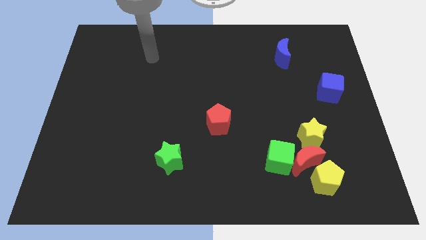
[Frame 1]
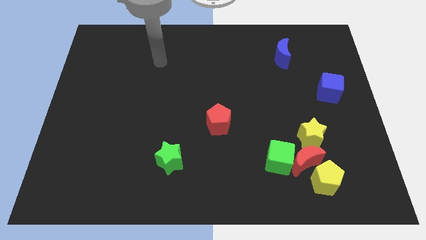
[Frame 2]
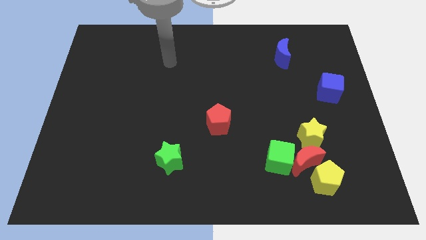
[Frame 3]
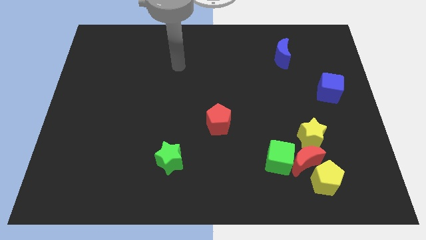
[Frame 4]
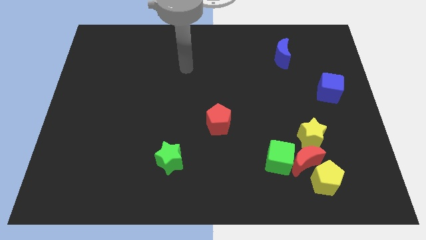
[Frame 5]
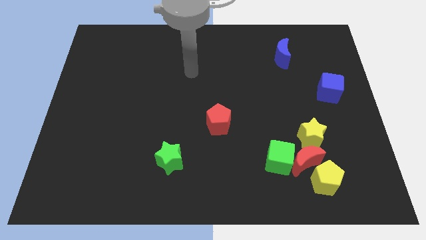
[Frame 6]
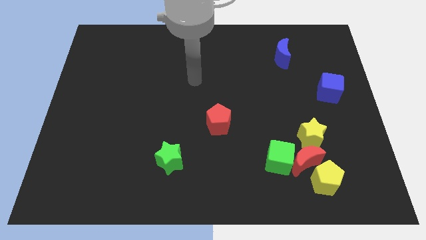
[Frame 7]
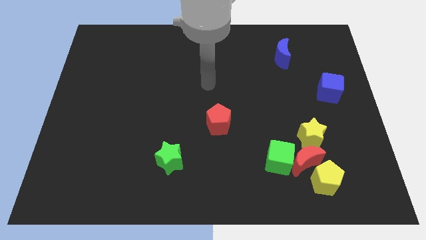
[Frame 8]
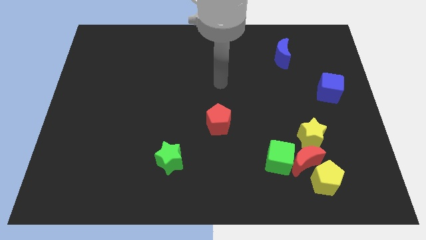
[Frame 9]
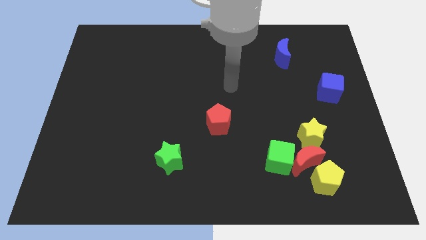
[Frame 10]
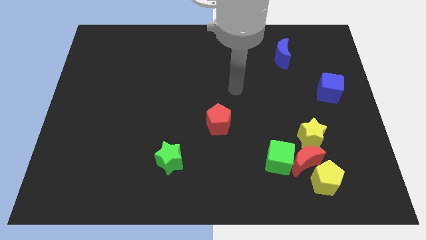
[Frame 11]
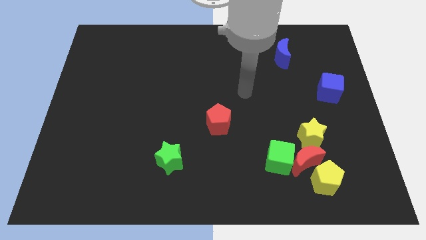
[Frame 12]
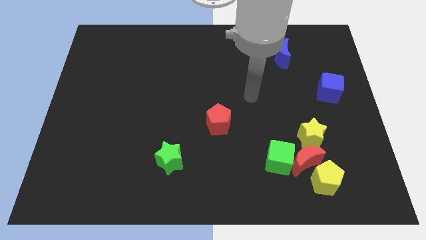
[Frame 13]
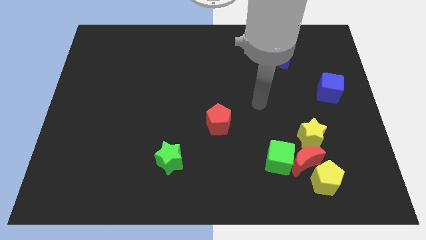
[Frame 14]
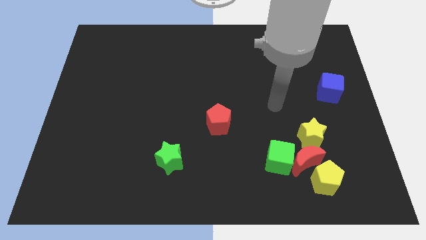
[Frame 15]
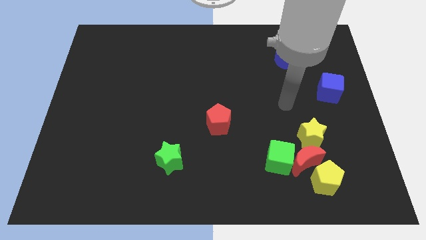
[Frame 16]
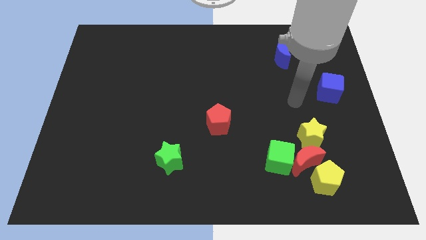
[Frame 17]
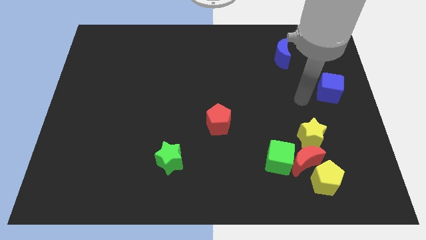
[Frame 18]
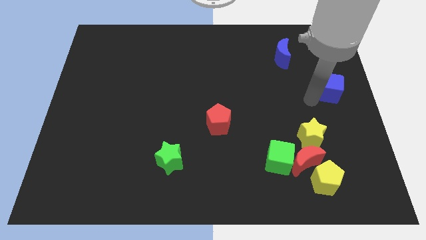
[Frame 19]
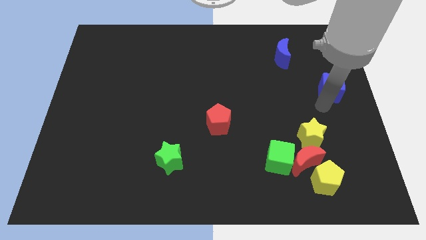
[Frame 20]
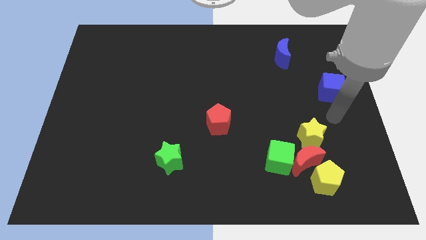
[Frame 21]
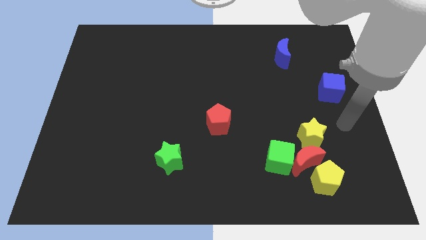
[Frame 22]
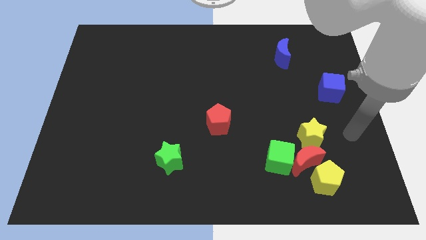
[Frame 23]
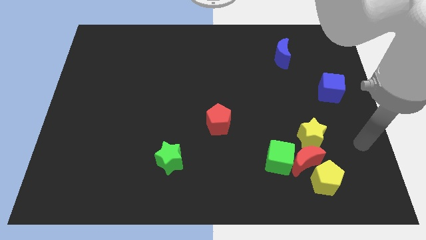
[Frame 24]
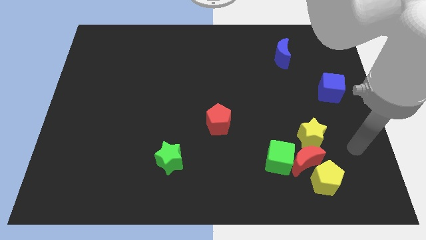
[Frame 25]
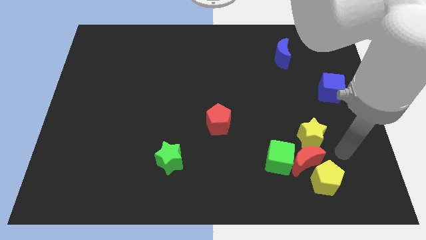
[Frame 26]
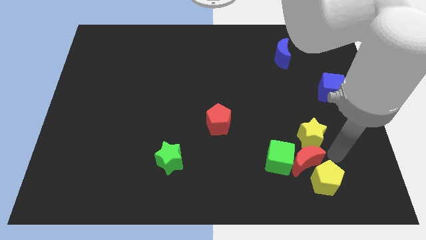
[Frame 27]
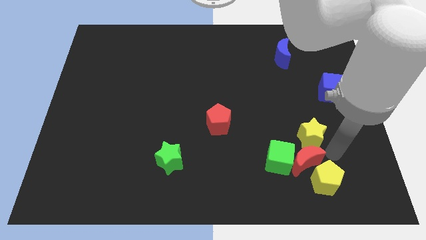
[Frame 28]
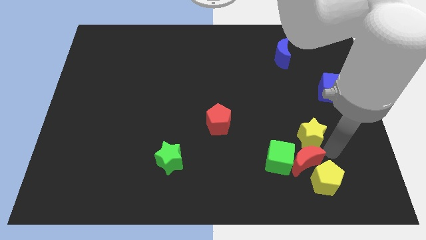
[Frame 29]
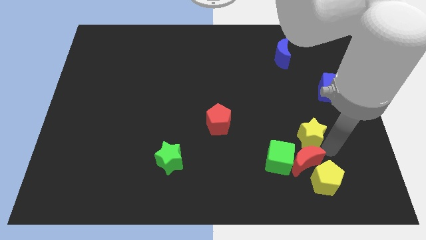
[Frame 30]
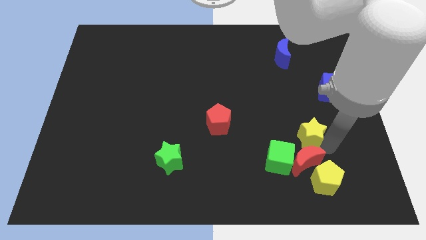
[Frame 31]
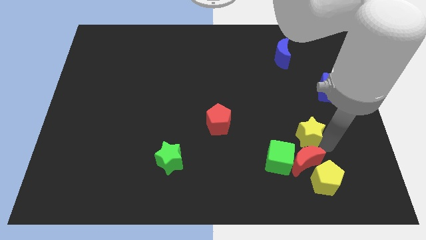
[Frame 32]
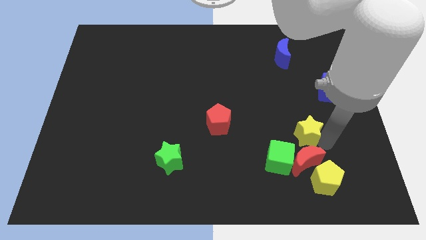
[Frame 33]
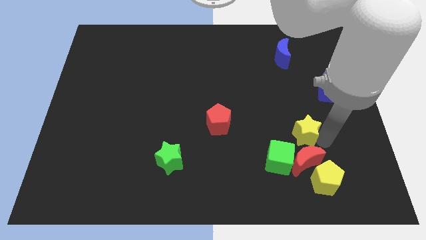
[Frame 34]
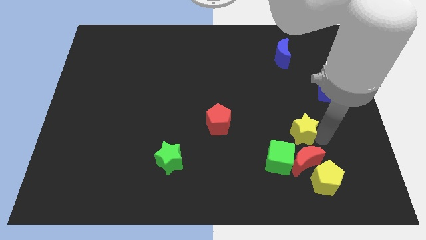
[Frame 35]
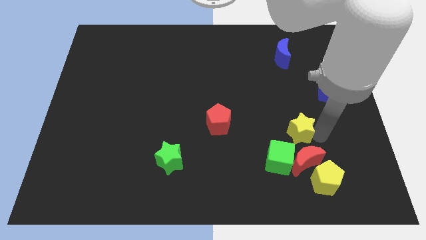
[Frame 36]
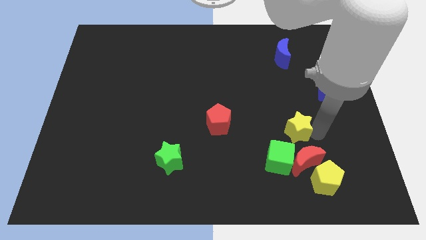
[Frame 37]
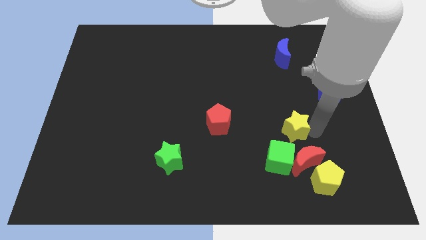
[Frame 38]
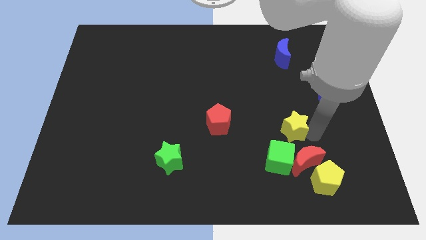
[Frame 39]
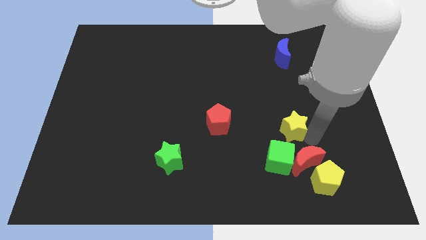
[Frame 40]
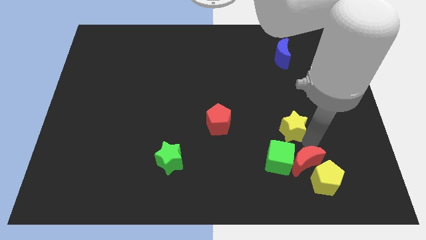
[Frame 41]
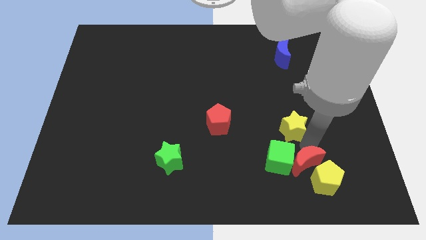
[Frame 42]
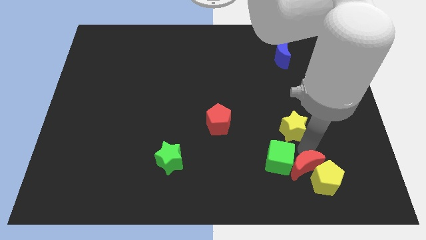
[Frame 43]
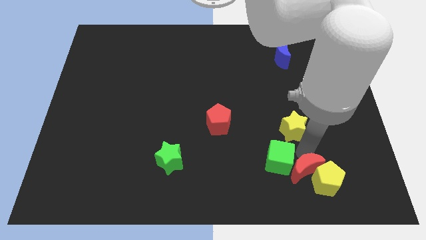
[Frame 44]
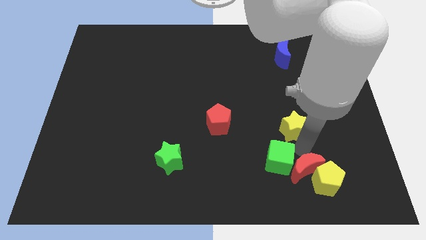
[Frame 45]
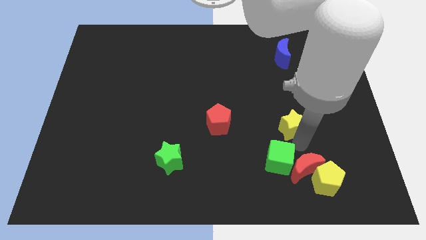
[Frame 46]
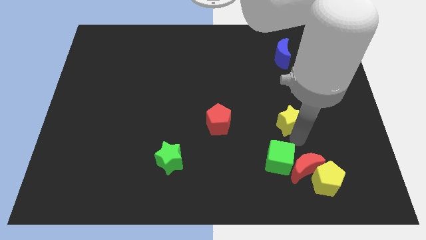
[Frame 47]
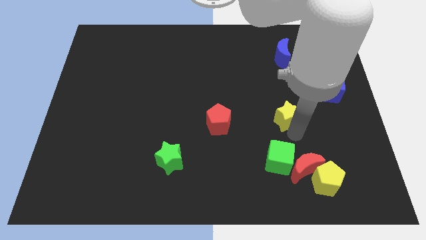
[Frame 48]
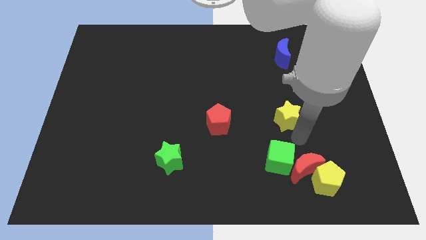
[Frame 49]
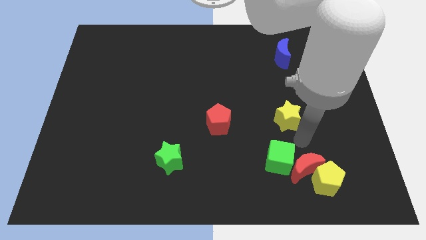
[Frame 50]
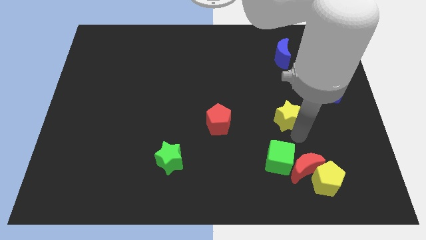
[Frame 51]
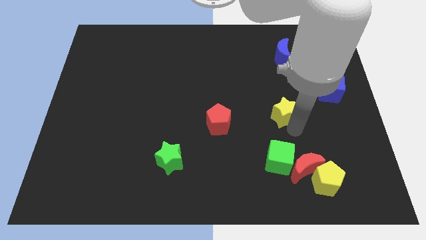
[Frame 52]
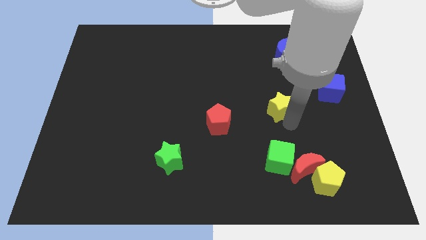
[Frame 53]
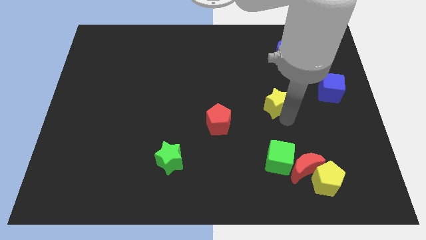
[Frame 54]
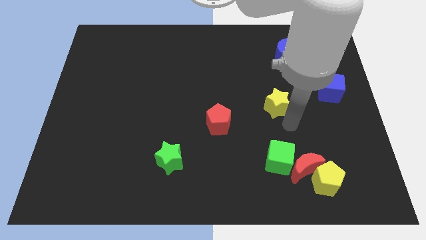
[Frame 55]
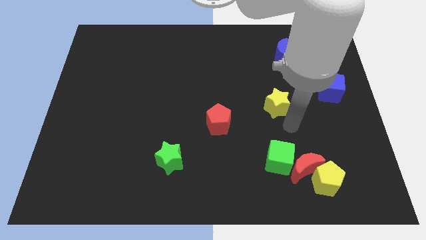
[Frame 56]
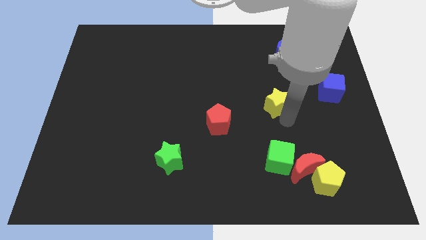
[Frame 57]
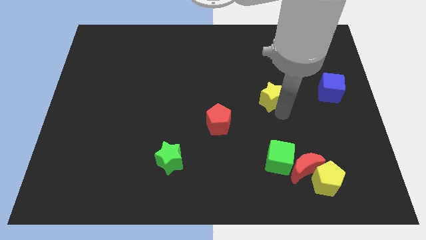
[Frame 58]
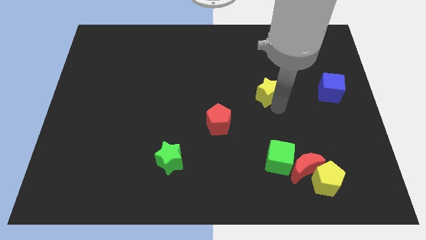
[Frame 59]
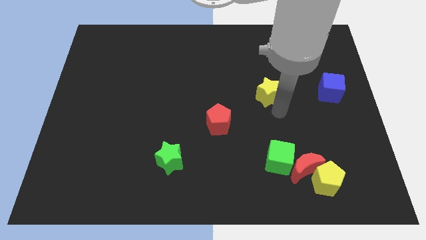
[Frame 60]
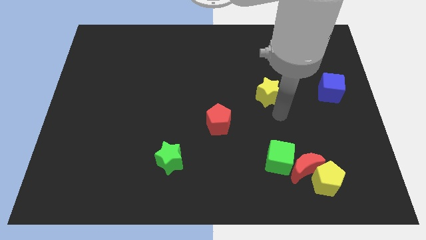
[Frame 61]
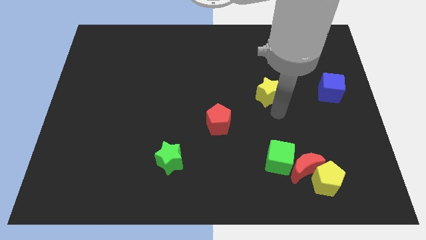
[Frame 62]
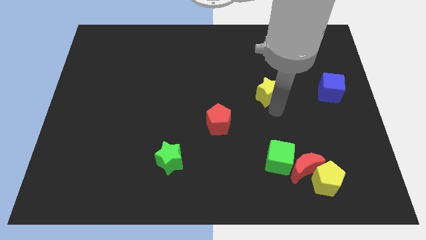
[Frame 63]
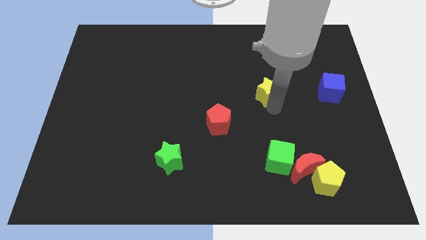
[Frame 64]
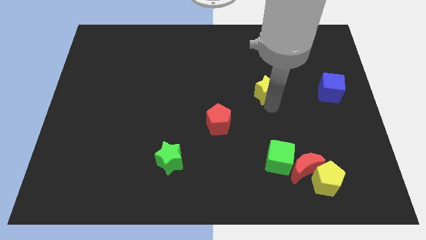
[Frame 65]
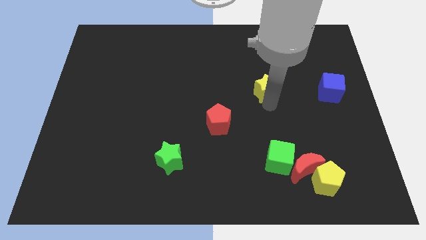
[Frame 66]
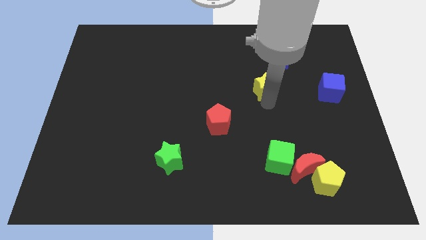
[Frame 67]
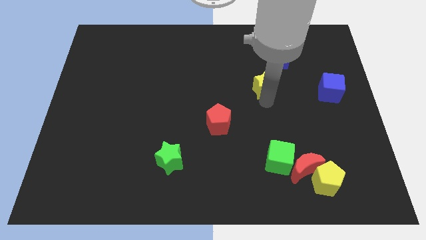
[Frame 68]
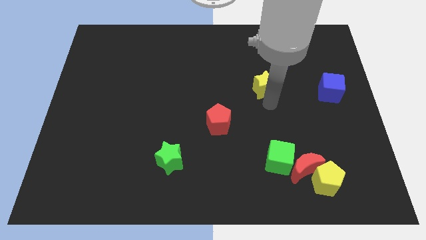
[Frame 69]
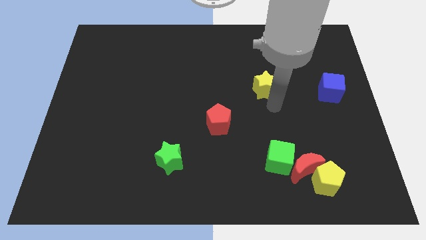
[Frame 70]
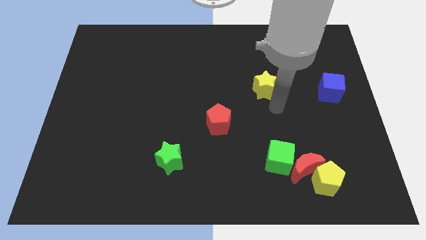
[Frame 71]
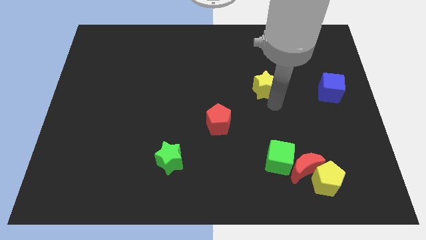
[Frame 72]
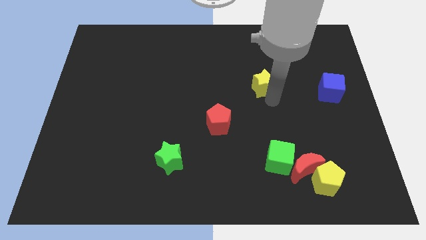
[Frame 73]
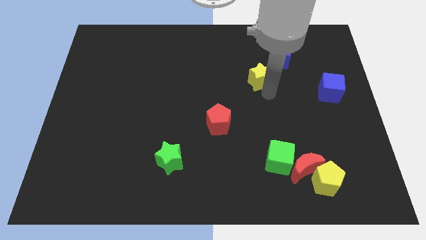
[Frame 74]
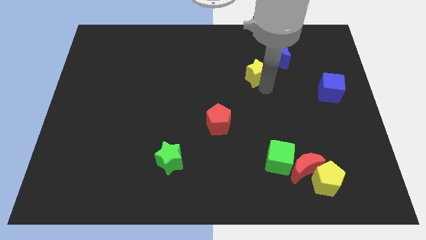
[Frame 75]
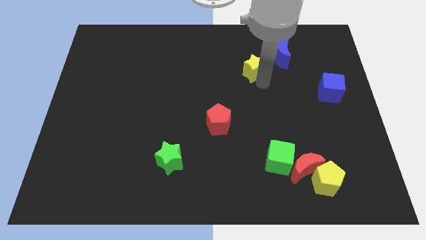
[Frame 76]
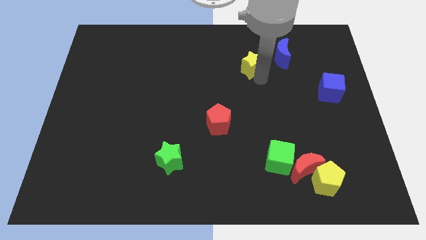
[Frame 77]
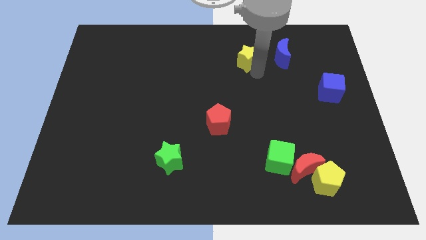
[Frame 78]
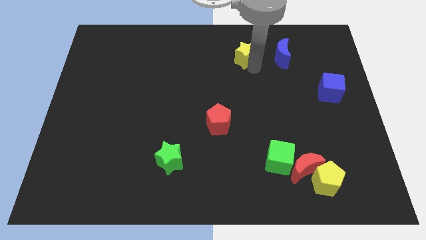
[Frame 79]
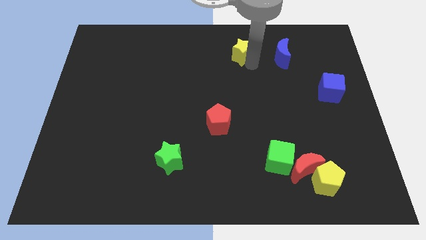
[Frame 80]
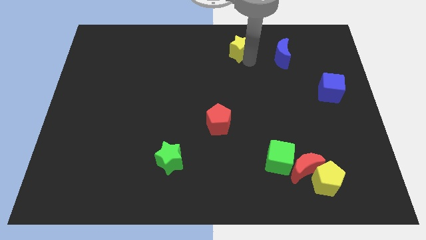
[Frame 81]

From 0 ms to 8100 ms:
move the yellow star to the top
